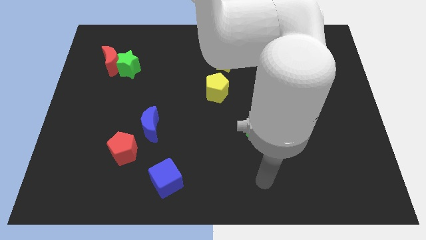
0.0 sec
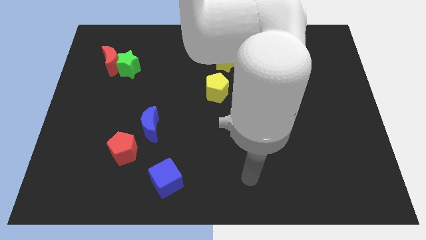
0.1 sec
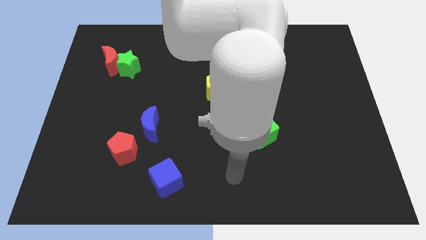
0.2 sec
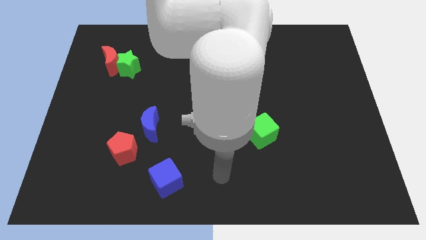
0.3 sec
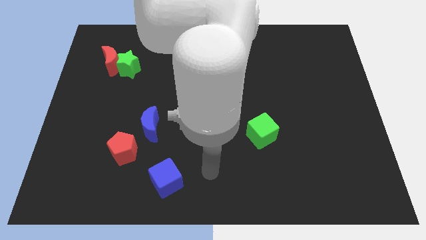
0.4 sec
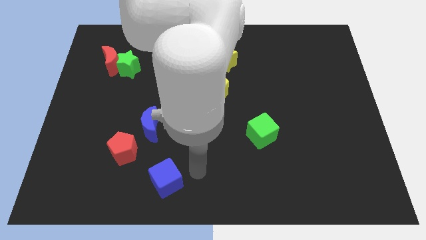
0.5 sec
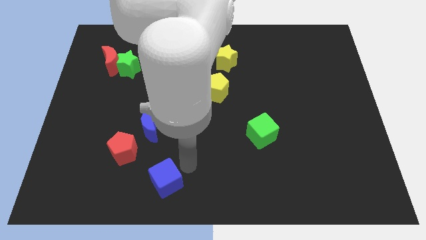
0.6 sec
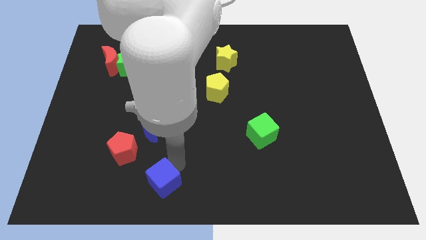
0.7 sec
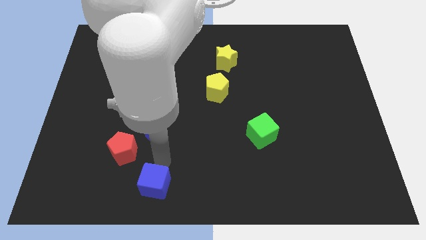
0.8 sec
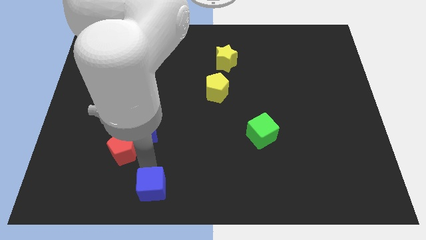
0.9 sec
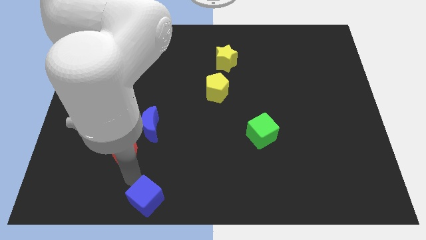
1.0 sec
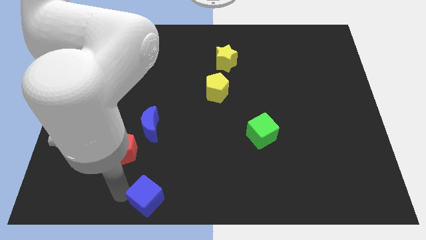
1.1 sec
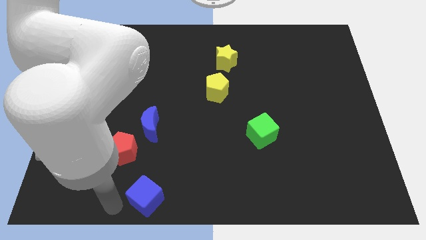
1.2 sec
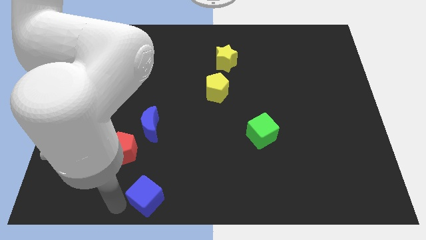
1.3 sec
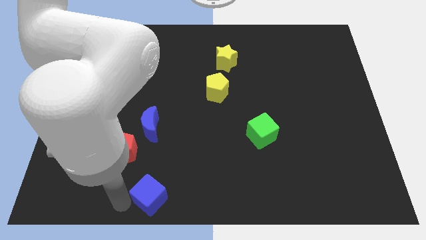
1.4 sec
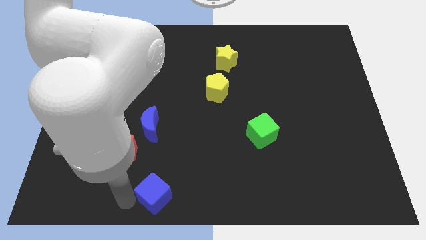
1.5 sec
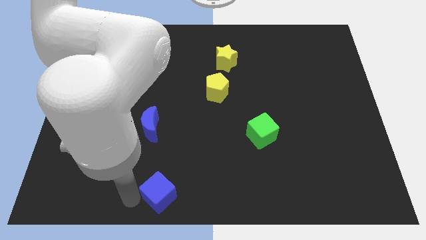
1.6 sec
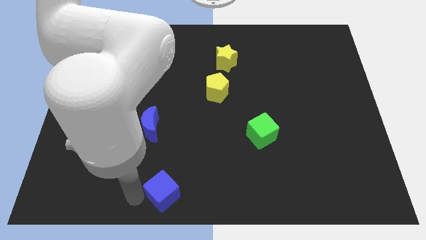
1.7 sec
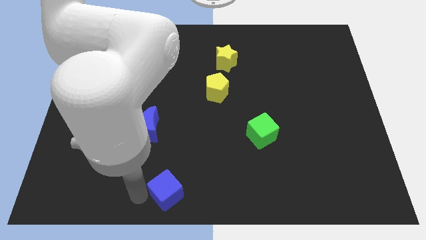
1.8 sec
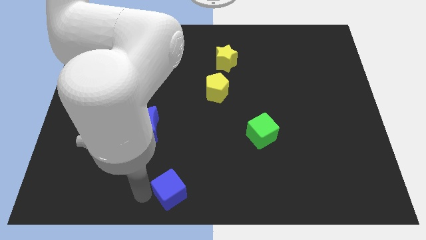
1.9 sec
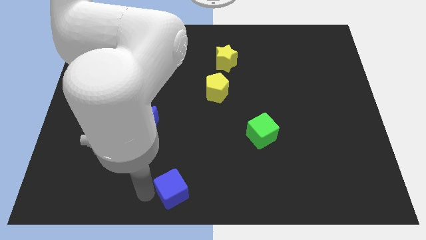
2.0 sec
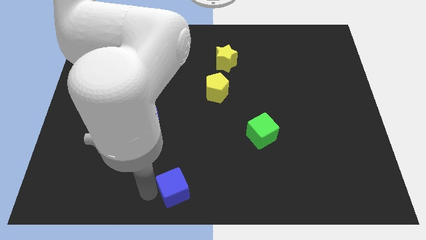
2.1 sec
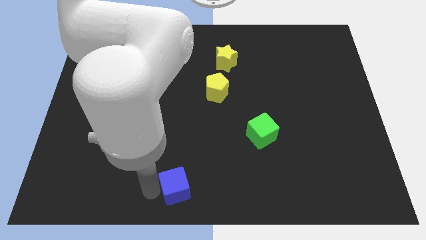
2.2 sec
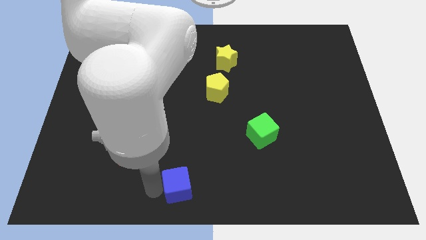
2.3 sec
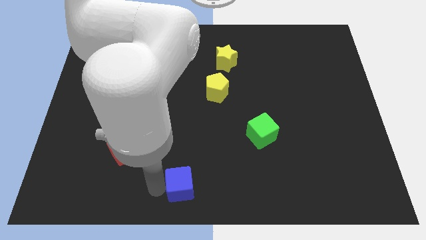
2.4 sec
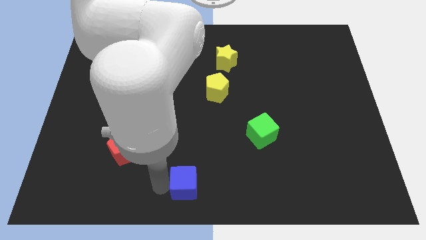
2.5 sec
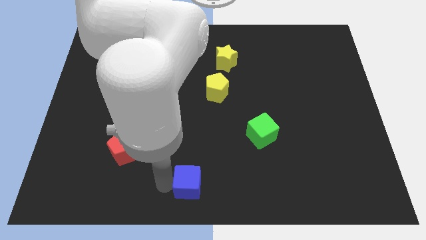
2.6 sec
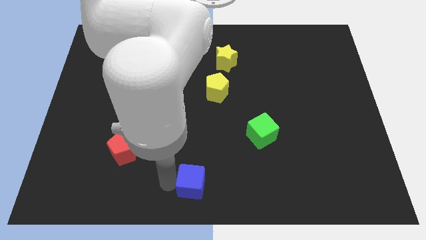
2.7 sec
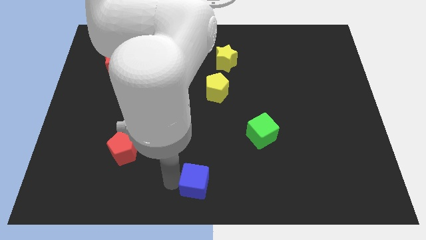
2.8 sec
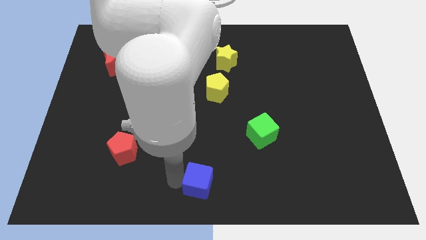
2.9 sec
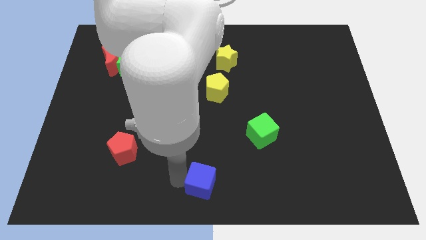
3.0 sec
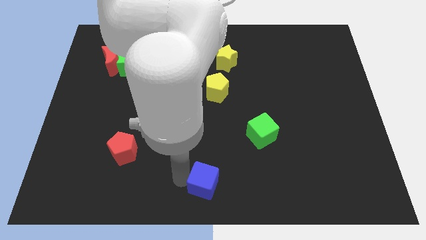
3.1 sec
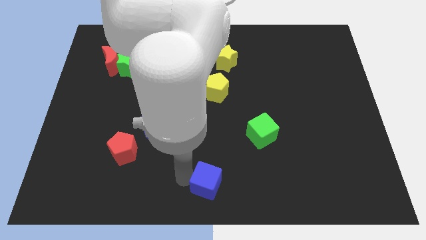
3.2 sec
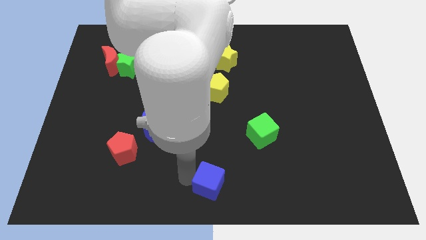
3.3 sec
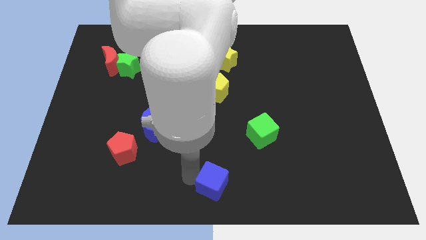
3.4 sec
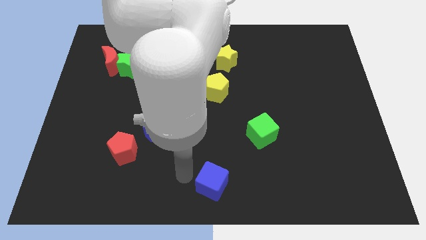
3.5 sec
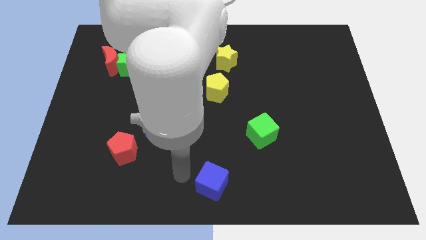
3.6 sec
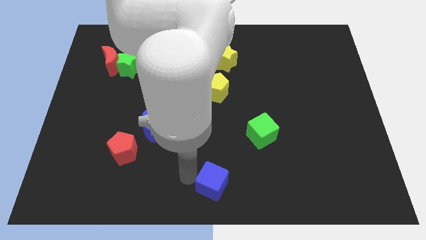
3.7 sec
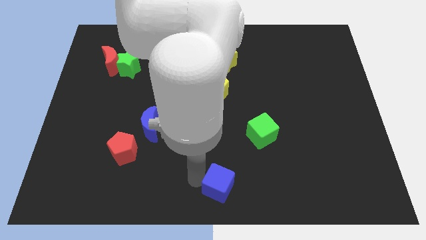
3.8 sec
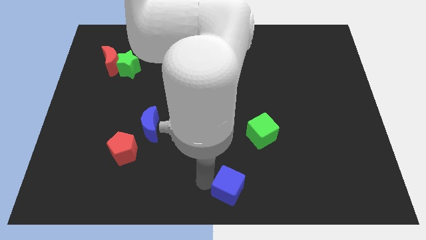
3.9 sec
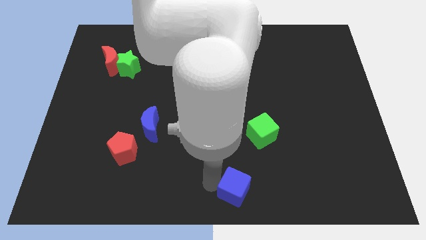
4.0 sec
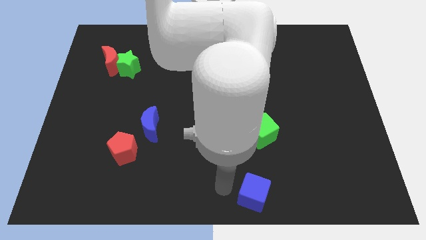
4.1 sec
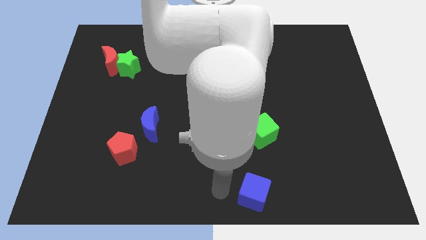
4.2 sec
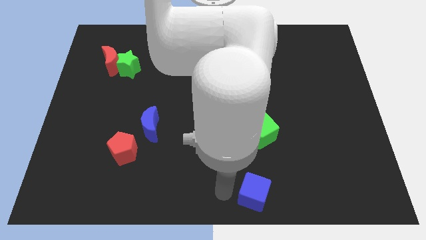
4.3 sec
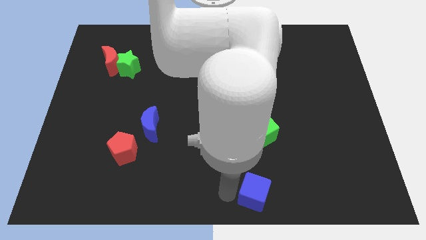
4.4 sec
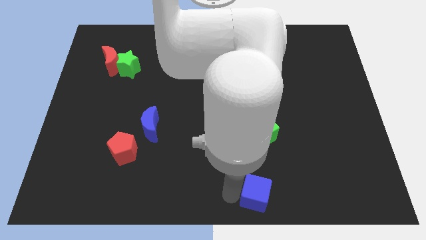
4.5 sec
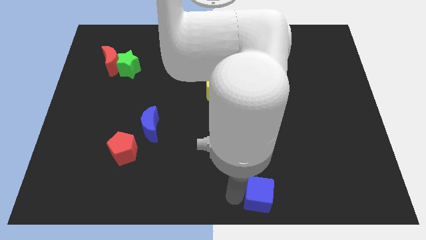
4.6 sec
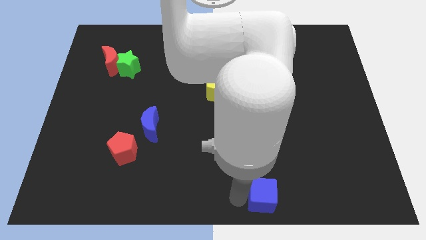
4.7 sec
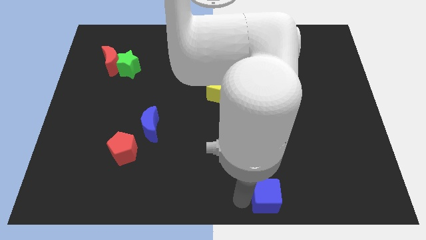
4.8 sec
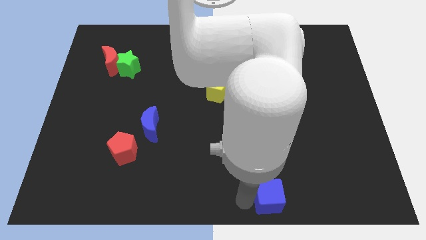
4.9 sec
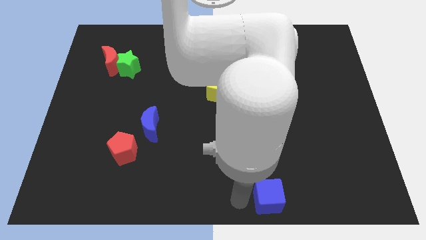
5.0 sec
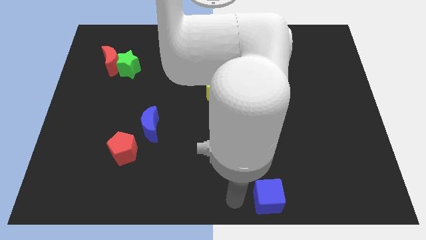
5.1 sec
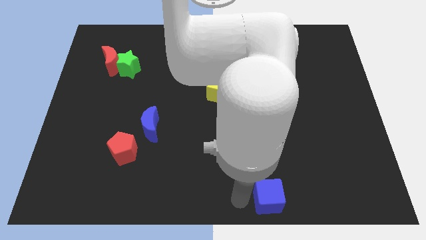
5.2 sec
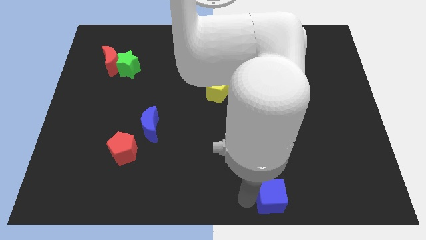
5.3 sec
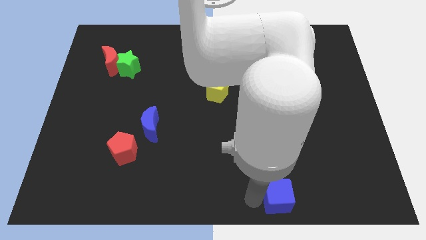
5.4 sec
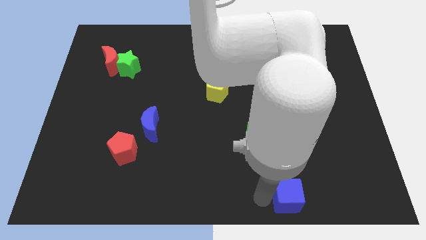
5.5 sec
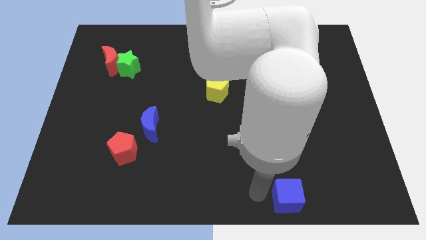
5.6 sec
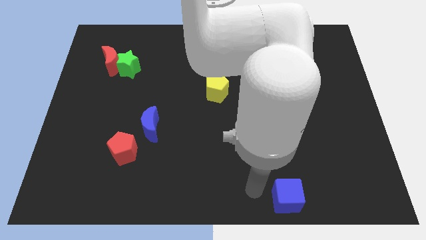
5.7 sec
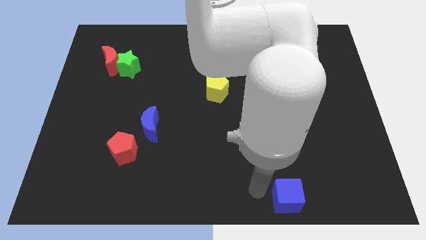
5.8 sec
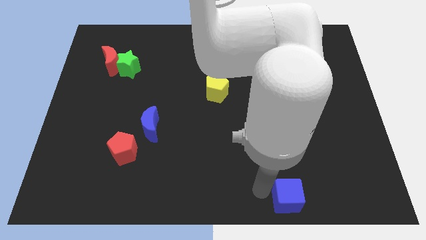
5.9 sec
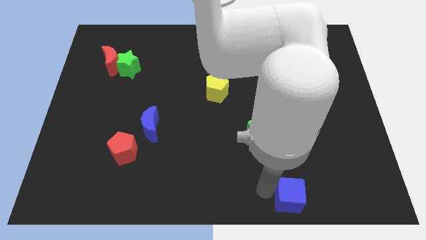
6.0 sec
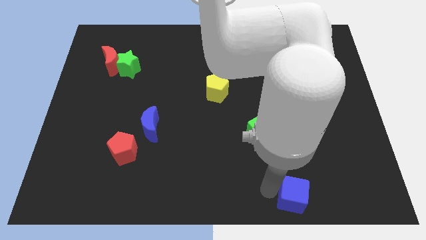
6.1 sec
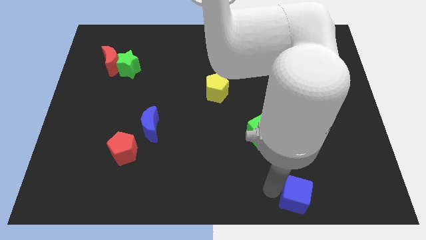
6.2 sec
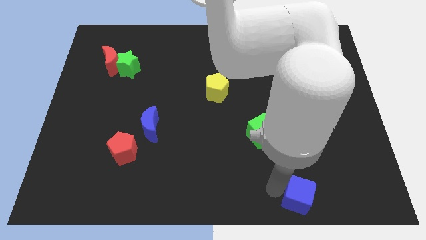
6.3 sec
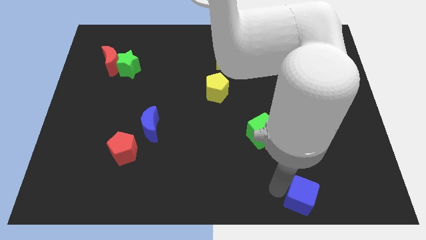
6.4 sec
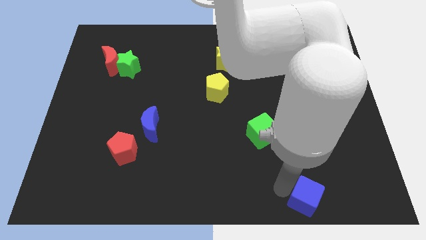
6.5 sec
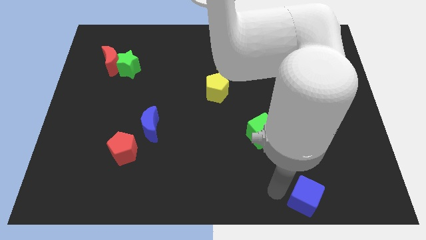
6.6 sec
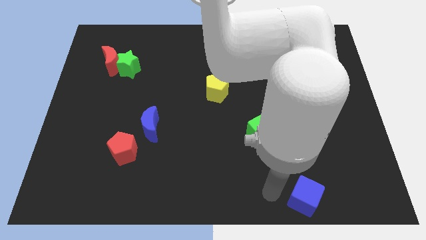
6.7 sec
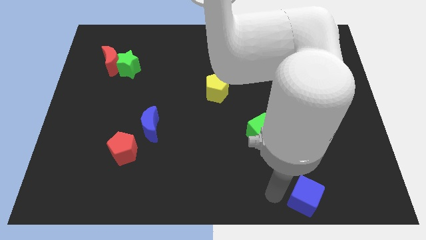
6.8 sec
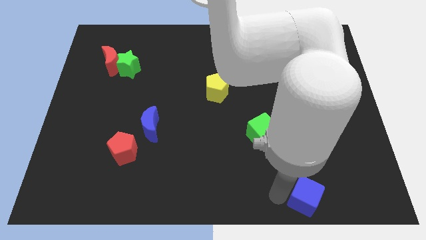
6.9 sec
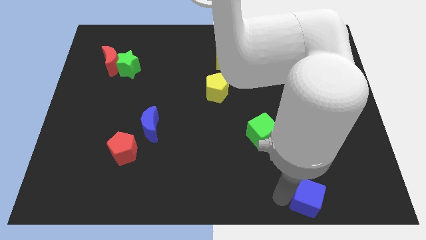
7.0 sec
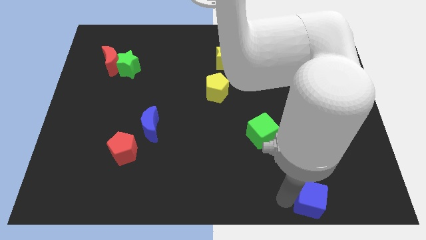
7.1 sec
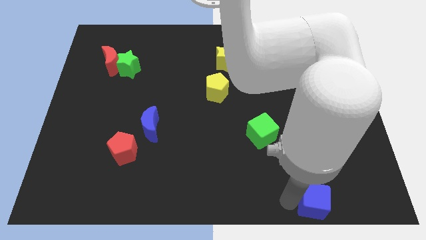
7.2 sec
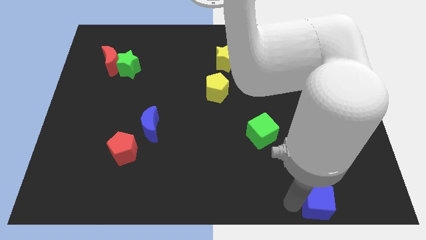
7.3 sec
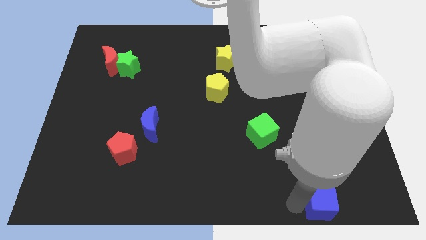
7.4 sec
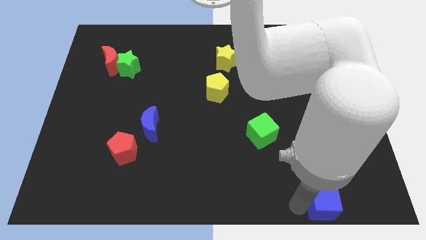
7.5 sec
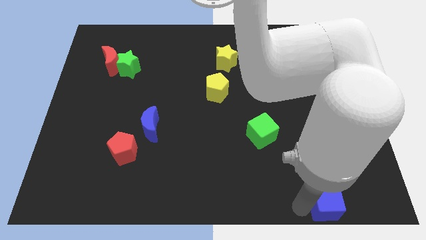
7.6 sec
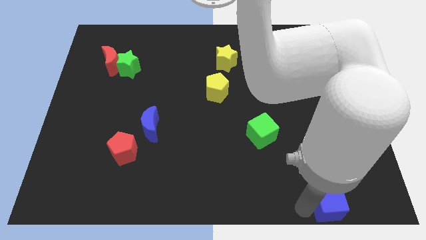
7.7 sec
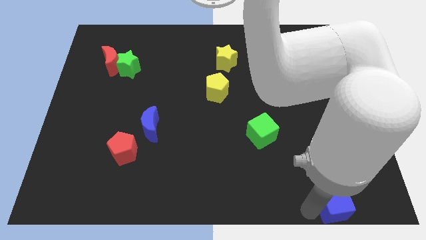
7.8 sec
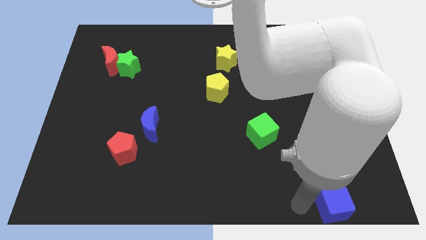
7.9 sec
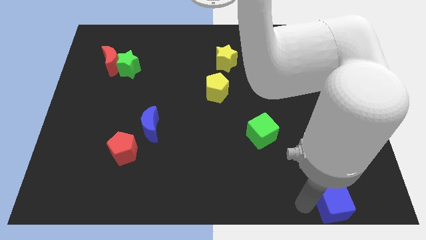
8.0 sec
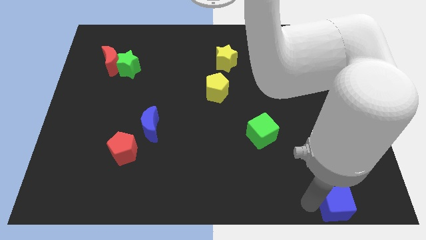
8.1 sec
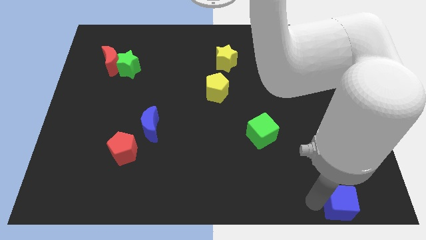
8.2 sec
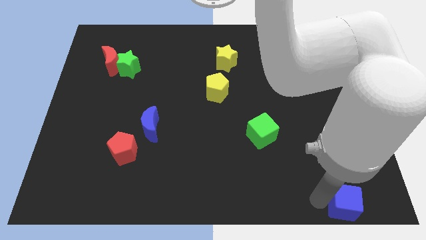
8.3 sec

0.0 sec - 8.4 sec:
put the blue cube to the bottom right of the board
